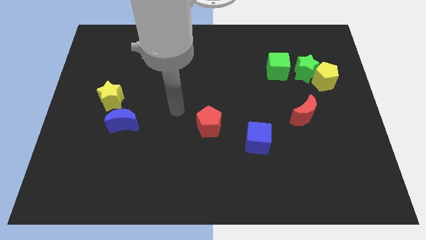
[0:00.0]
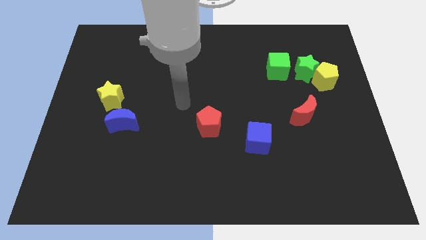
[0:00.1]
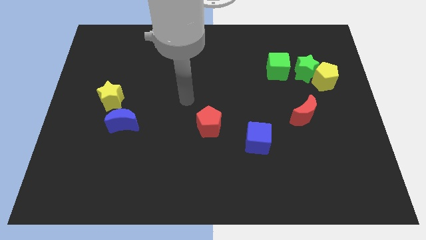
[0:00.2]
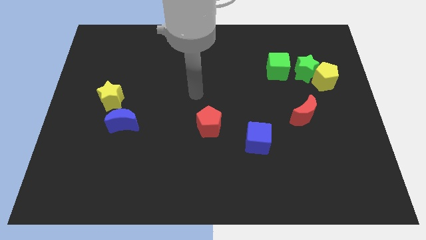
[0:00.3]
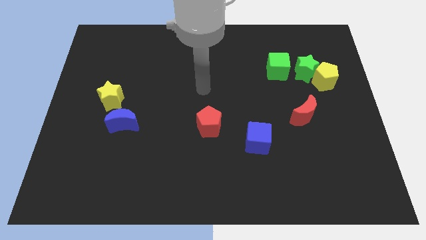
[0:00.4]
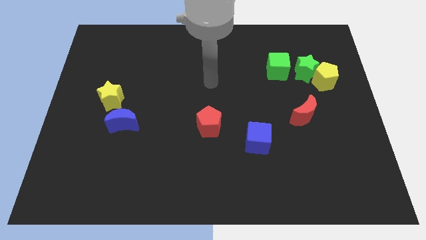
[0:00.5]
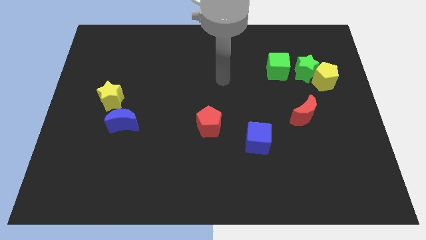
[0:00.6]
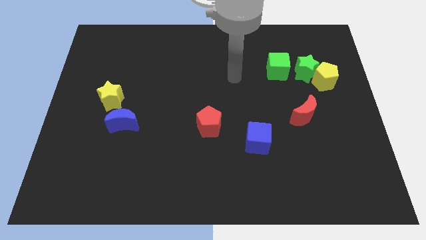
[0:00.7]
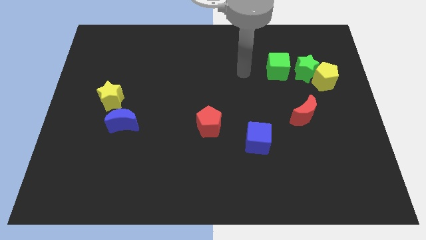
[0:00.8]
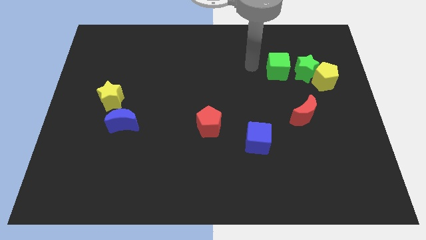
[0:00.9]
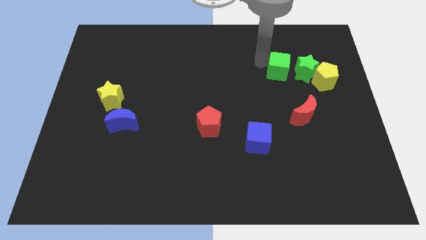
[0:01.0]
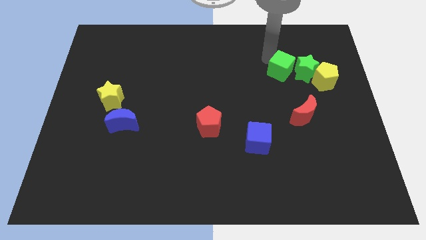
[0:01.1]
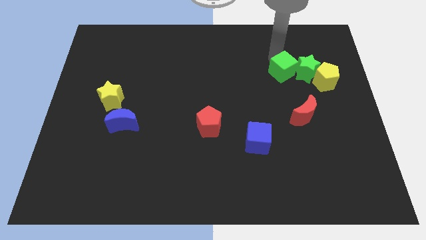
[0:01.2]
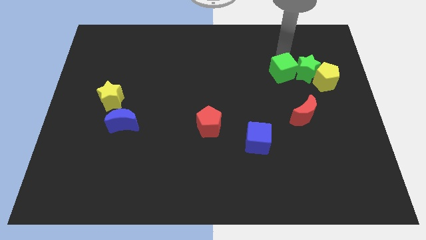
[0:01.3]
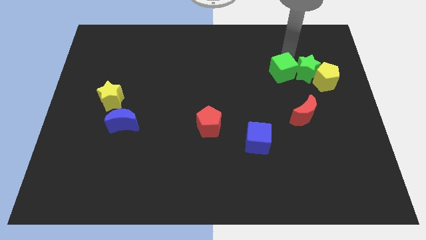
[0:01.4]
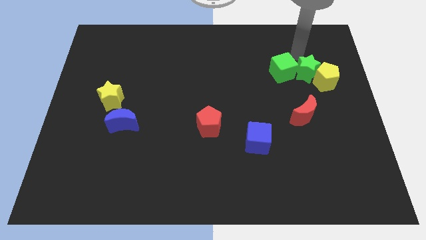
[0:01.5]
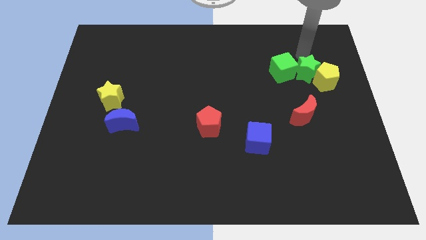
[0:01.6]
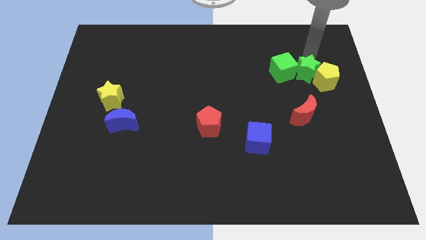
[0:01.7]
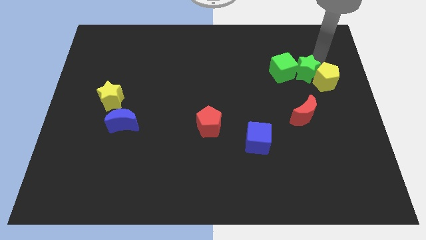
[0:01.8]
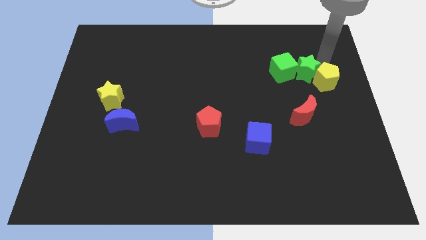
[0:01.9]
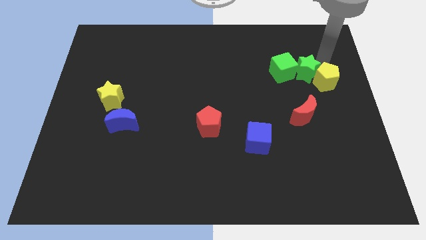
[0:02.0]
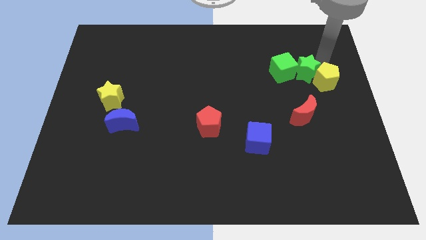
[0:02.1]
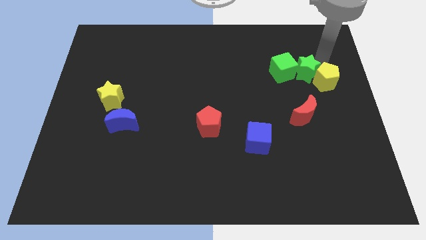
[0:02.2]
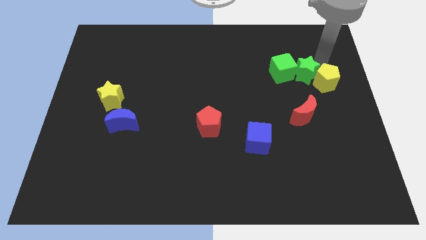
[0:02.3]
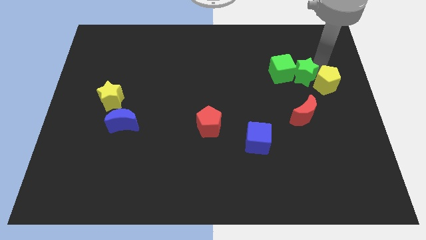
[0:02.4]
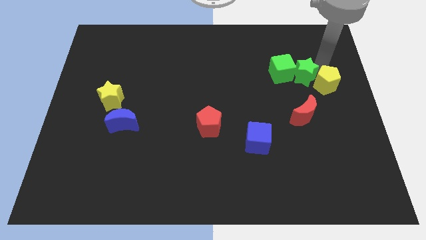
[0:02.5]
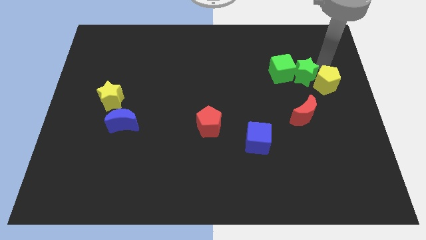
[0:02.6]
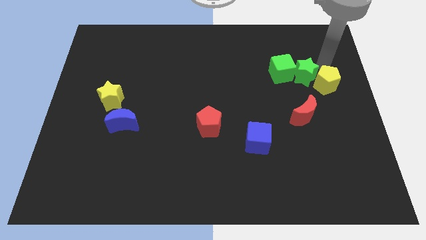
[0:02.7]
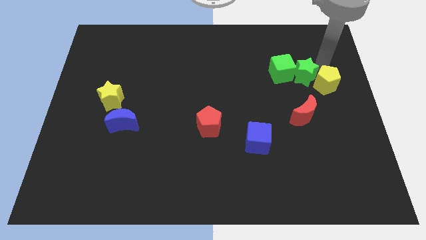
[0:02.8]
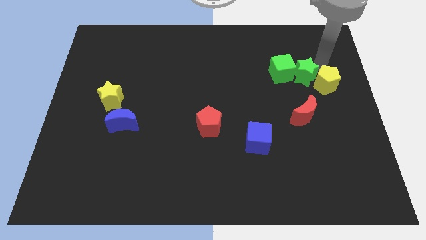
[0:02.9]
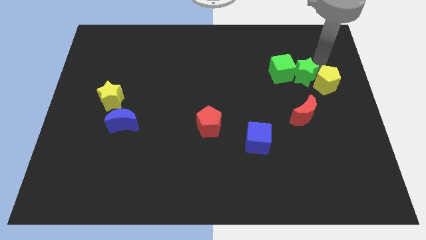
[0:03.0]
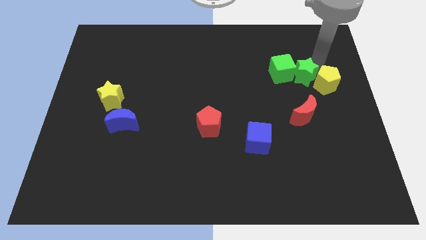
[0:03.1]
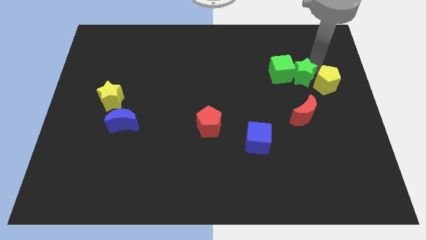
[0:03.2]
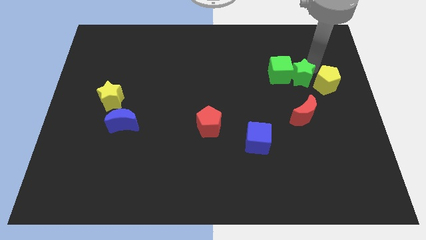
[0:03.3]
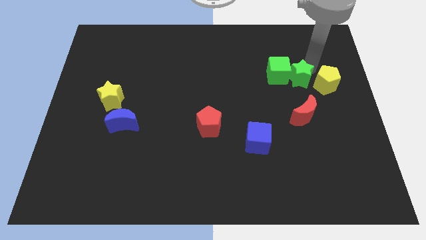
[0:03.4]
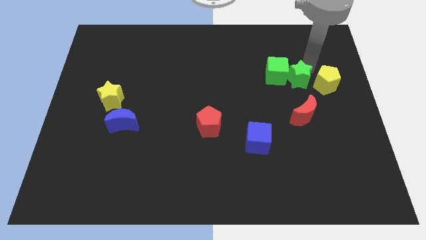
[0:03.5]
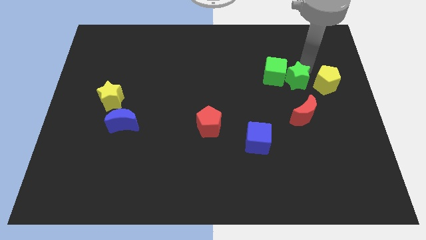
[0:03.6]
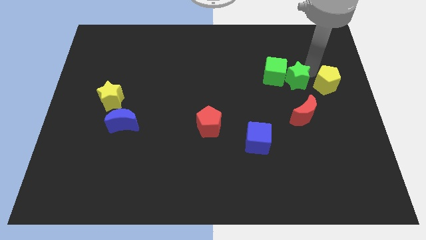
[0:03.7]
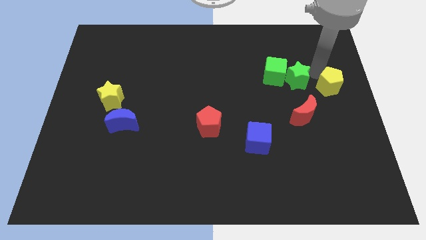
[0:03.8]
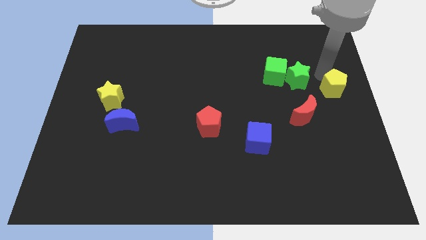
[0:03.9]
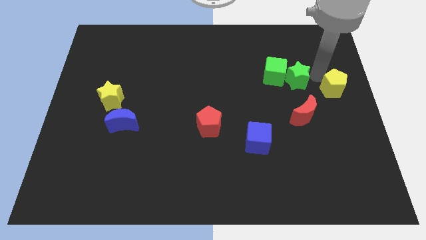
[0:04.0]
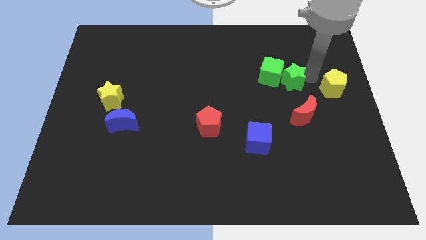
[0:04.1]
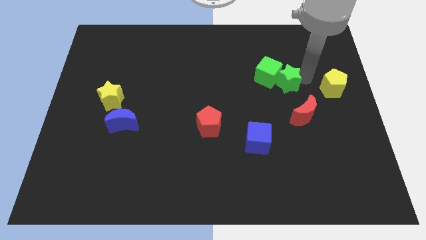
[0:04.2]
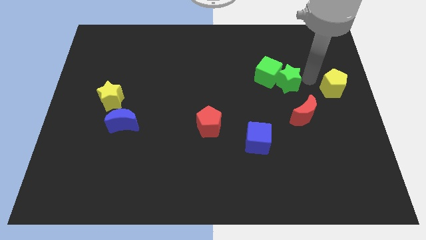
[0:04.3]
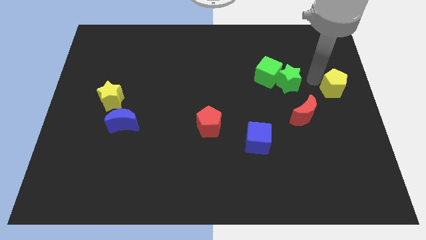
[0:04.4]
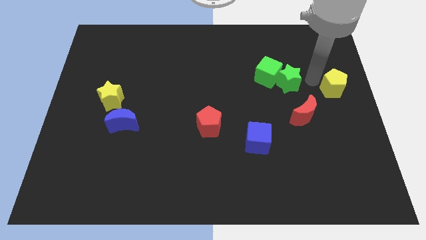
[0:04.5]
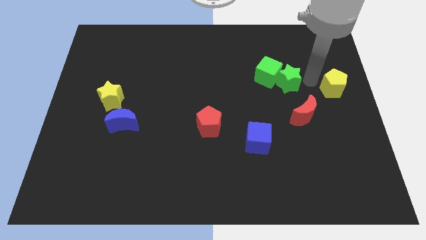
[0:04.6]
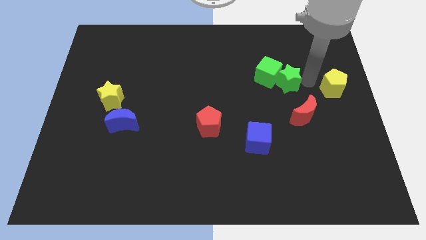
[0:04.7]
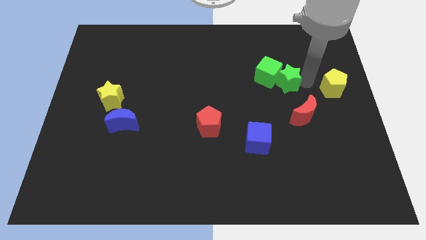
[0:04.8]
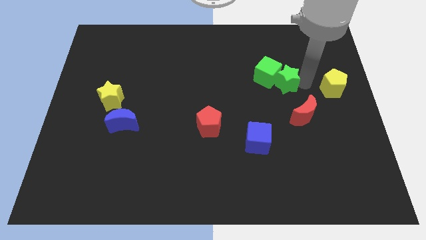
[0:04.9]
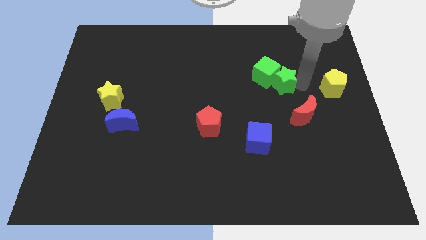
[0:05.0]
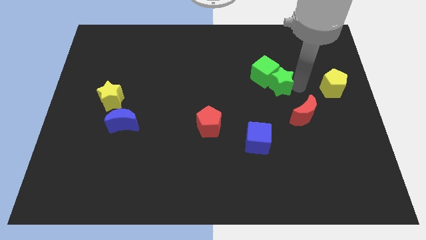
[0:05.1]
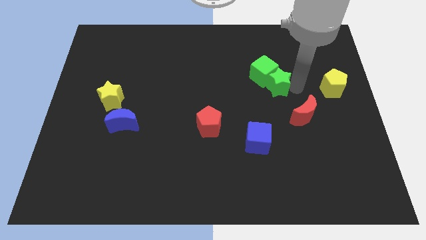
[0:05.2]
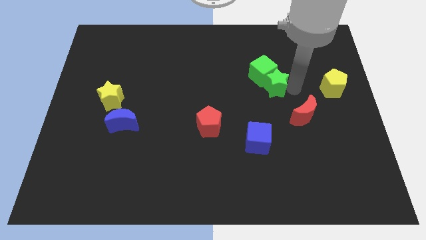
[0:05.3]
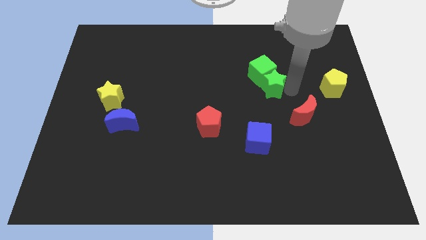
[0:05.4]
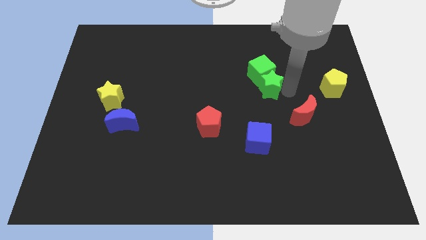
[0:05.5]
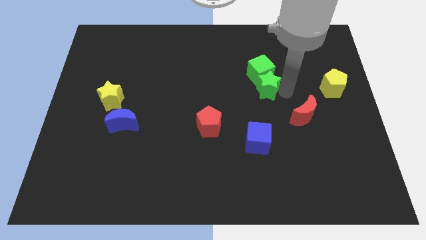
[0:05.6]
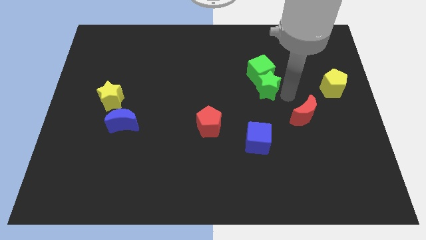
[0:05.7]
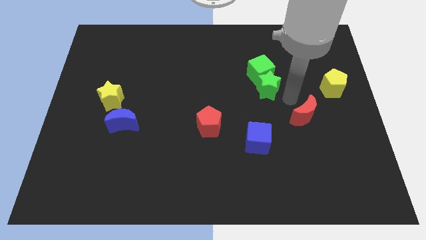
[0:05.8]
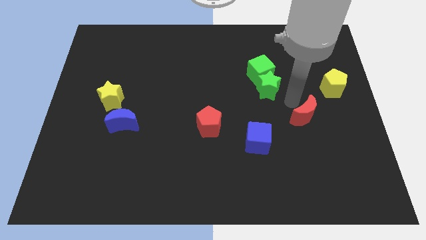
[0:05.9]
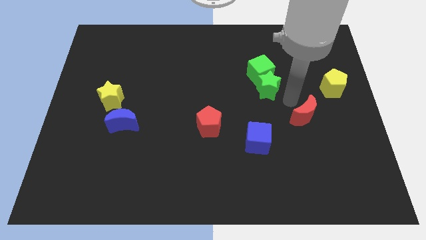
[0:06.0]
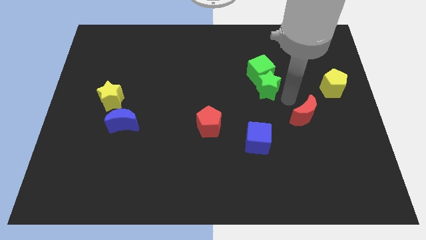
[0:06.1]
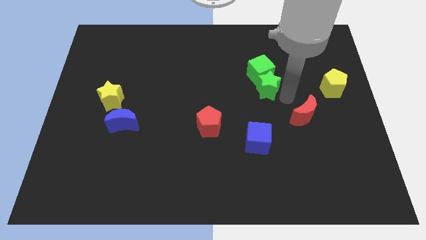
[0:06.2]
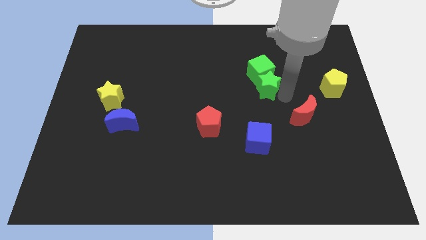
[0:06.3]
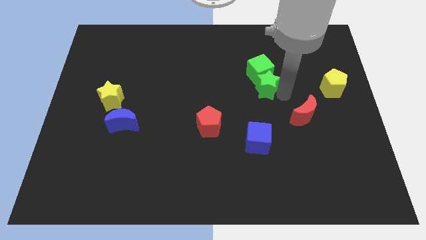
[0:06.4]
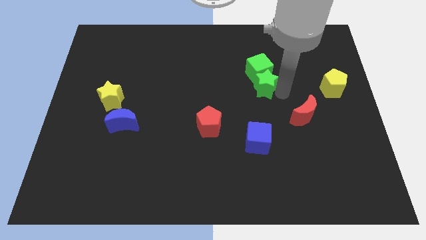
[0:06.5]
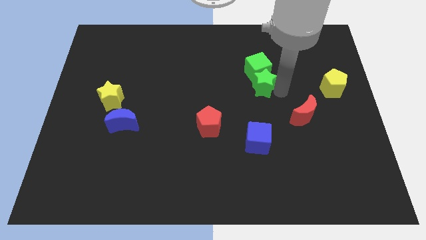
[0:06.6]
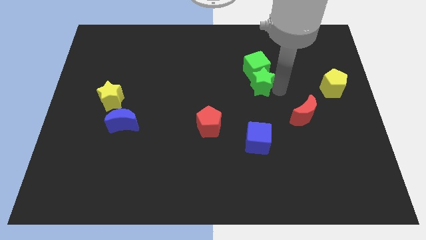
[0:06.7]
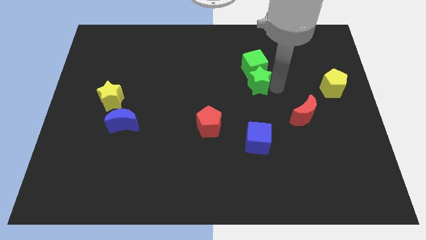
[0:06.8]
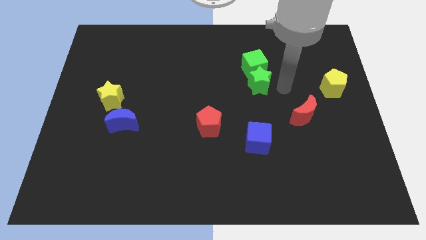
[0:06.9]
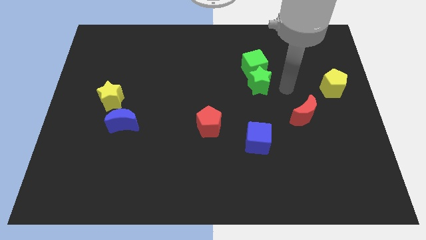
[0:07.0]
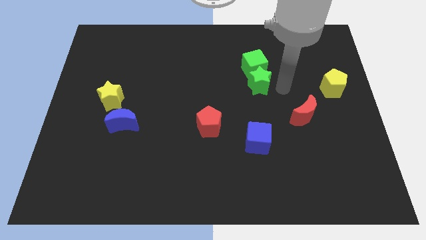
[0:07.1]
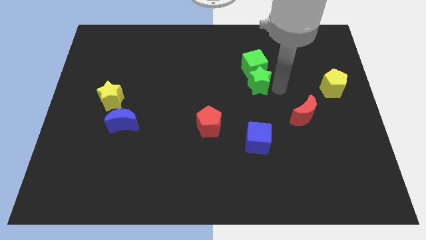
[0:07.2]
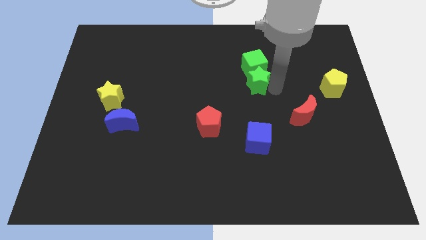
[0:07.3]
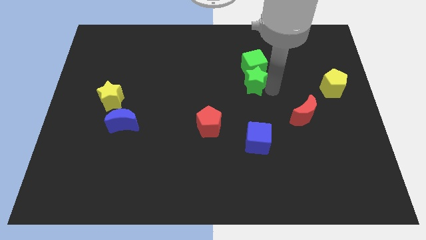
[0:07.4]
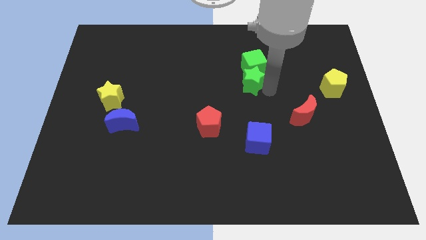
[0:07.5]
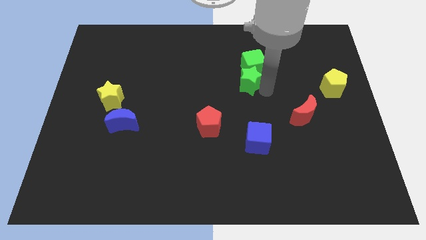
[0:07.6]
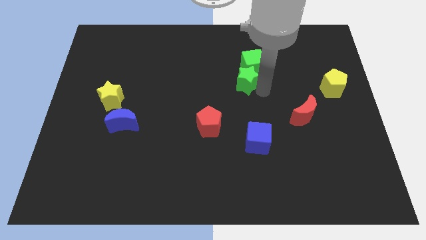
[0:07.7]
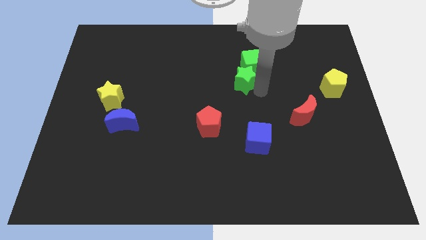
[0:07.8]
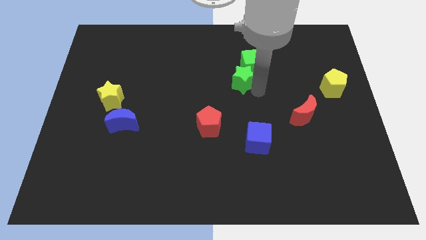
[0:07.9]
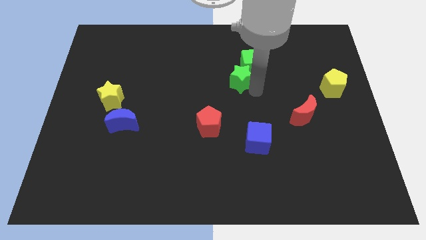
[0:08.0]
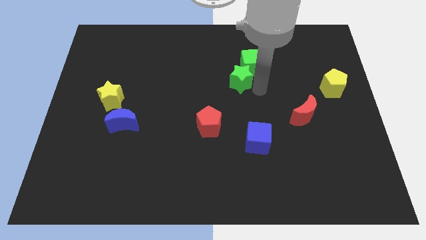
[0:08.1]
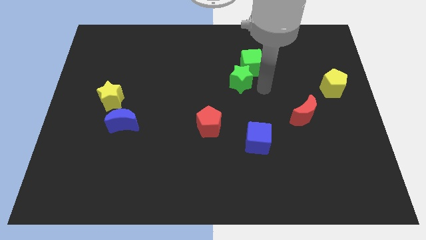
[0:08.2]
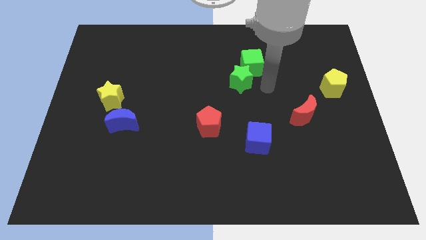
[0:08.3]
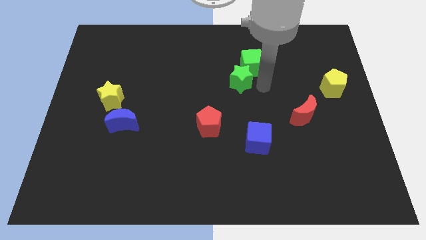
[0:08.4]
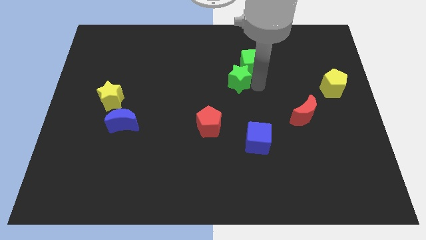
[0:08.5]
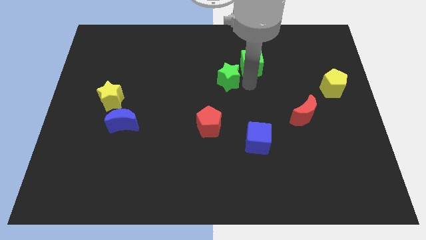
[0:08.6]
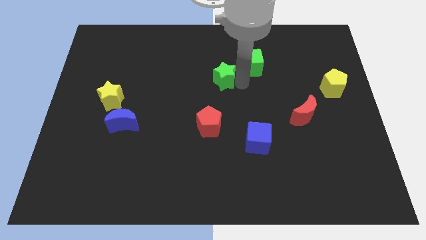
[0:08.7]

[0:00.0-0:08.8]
push the green star left
